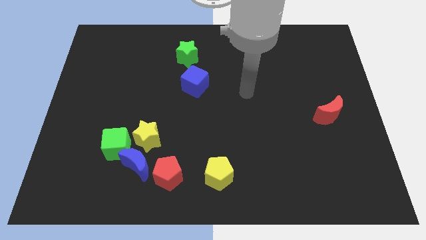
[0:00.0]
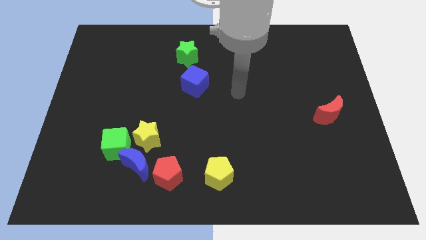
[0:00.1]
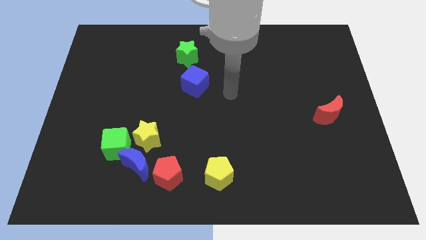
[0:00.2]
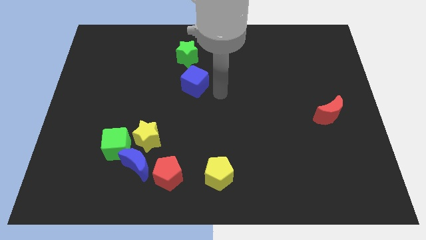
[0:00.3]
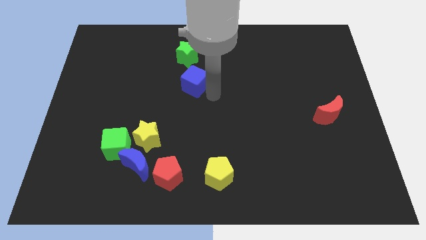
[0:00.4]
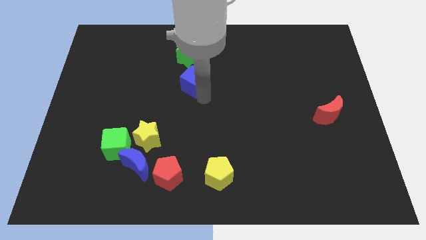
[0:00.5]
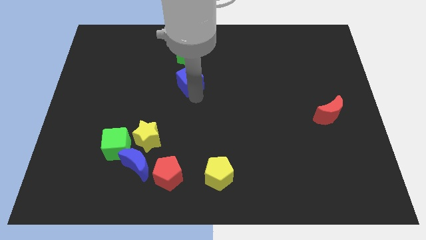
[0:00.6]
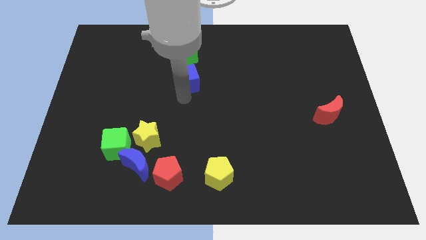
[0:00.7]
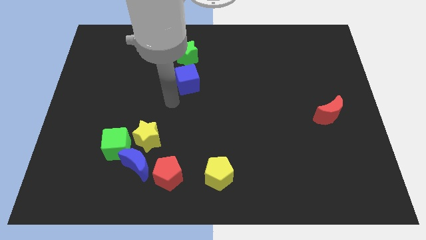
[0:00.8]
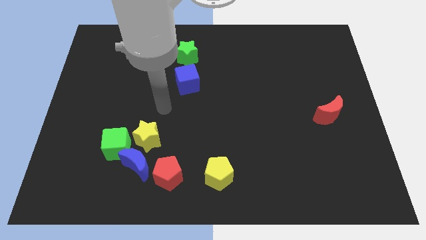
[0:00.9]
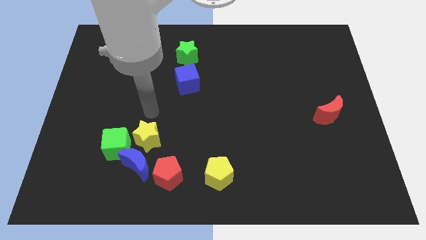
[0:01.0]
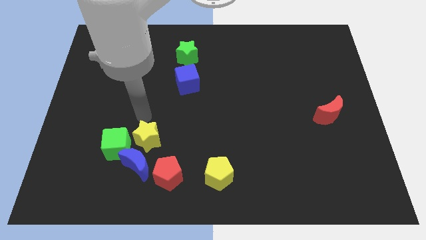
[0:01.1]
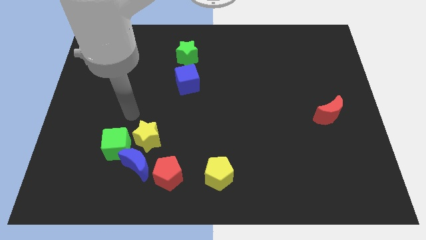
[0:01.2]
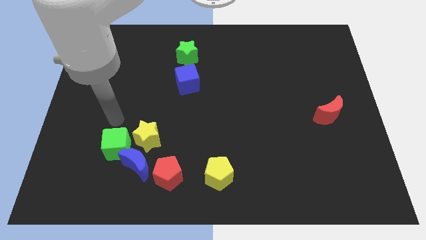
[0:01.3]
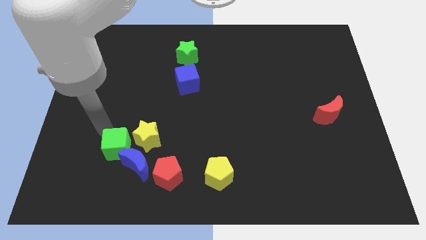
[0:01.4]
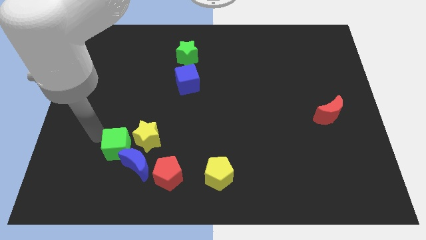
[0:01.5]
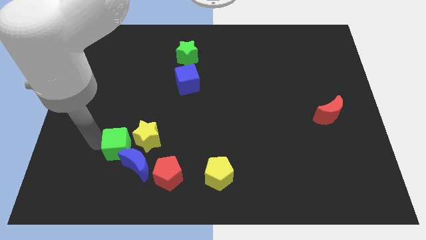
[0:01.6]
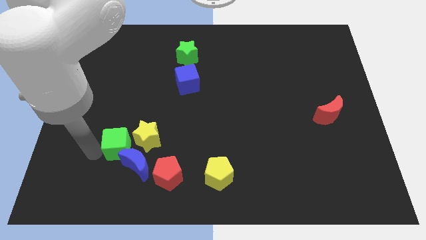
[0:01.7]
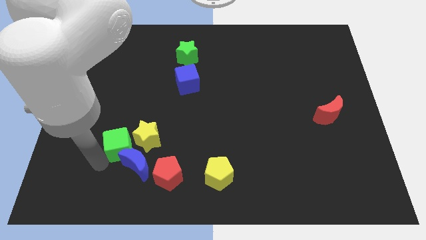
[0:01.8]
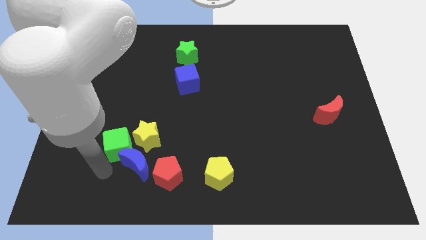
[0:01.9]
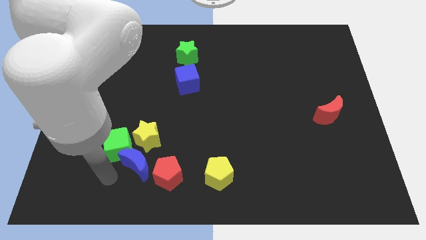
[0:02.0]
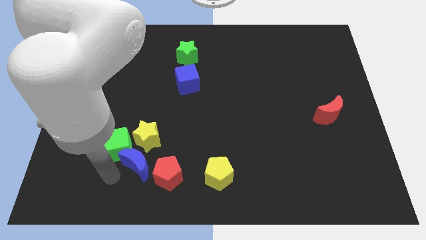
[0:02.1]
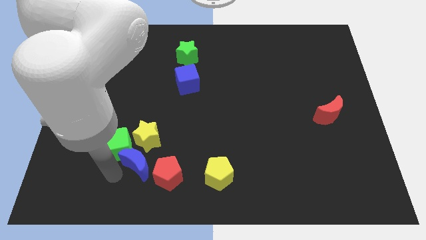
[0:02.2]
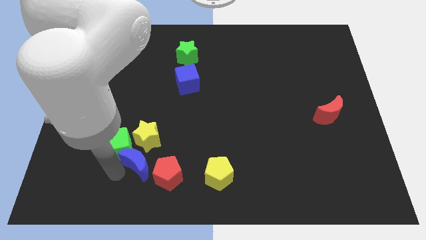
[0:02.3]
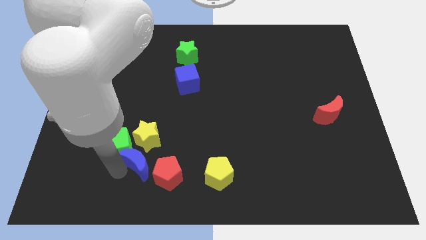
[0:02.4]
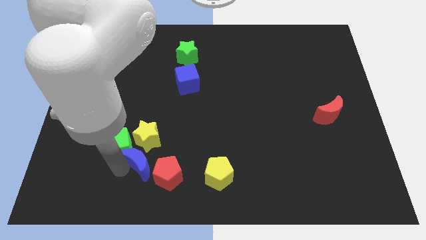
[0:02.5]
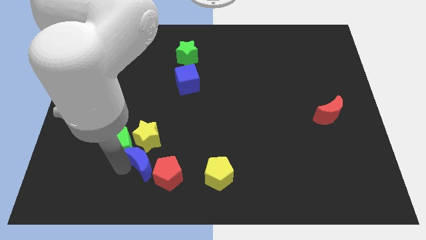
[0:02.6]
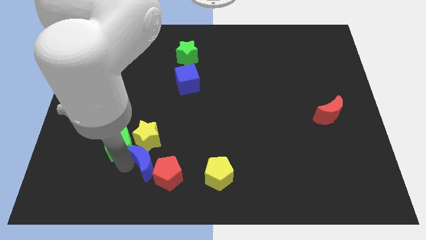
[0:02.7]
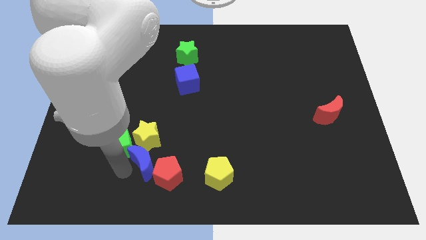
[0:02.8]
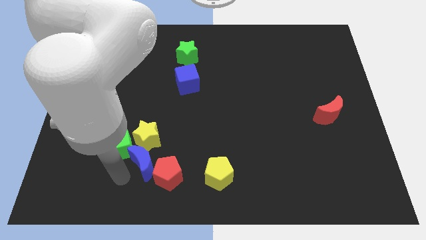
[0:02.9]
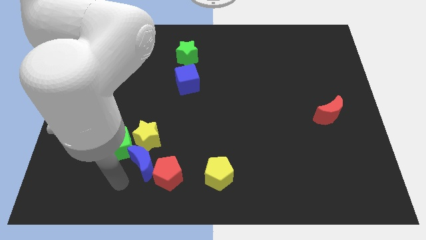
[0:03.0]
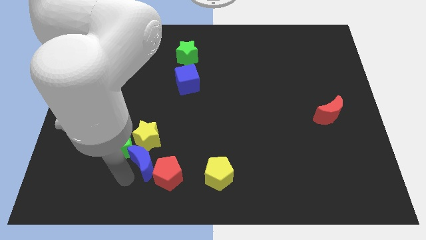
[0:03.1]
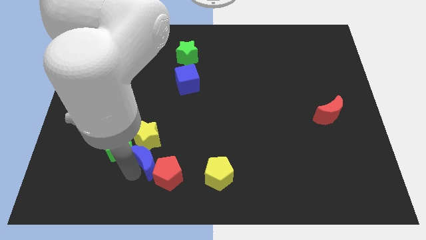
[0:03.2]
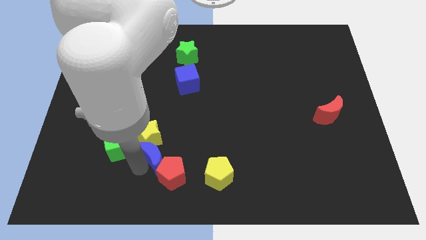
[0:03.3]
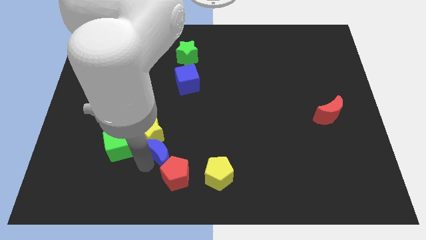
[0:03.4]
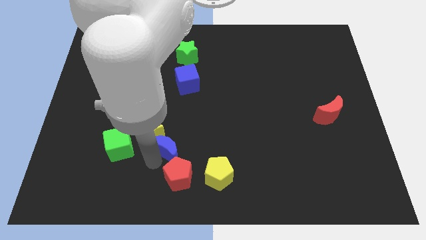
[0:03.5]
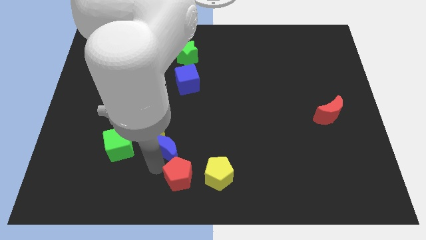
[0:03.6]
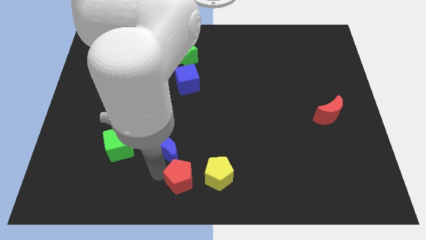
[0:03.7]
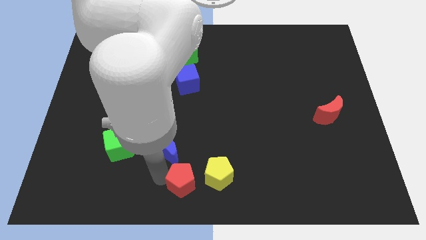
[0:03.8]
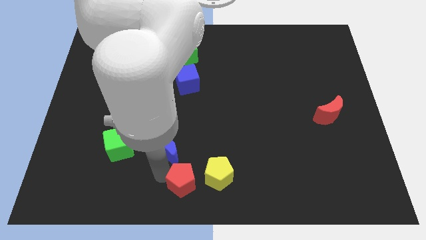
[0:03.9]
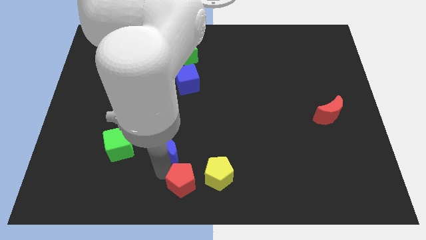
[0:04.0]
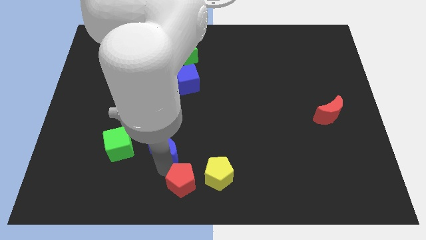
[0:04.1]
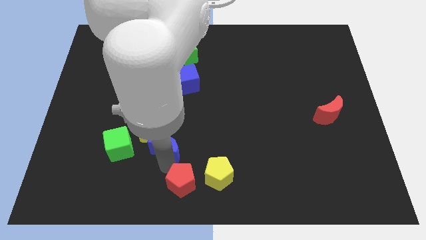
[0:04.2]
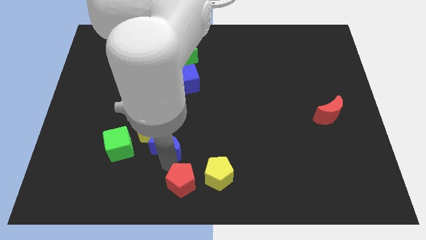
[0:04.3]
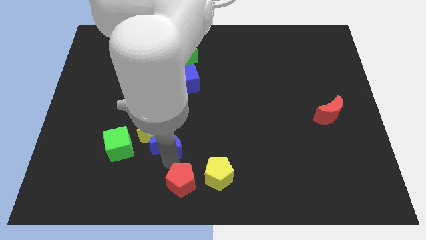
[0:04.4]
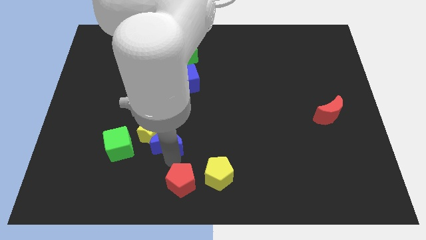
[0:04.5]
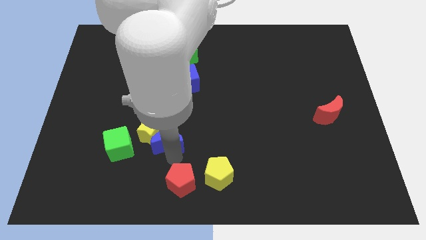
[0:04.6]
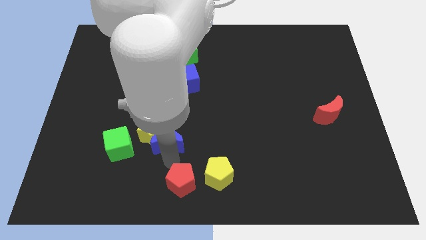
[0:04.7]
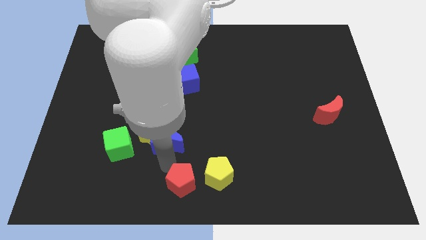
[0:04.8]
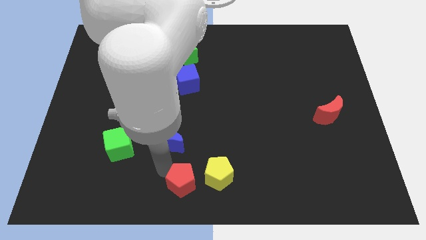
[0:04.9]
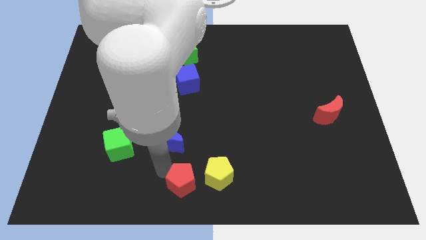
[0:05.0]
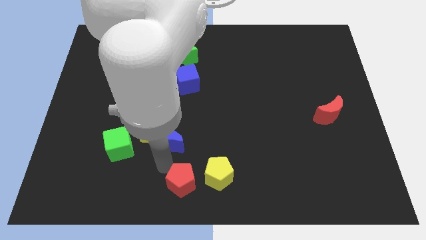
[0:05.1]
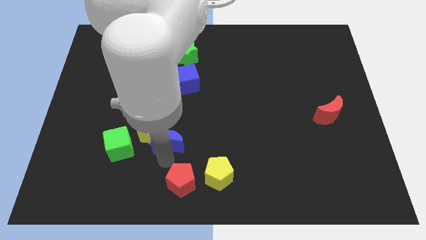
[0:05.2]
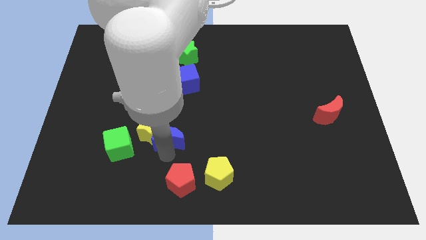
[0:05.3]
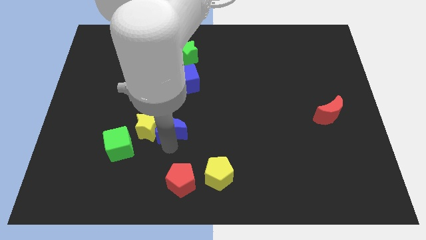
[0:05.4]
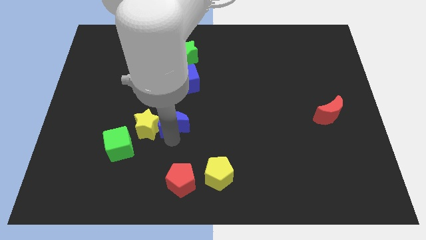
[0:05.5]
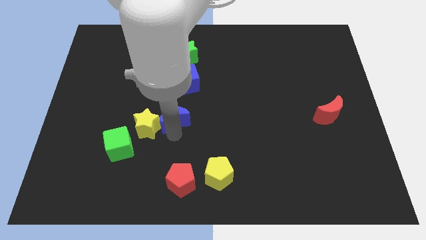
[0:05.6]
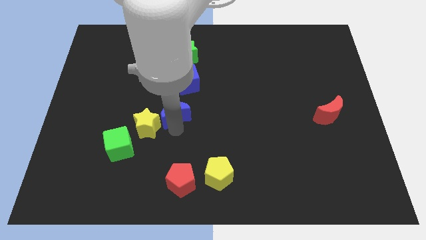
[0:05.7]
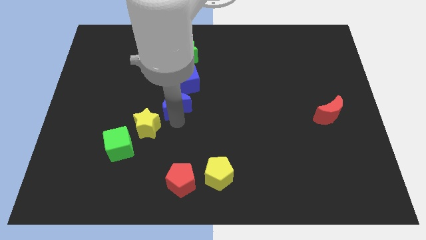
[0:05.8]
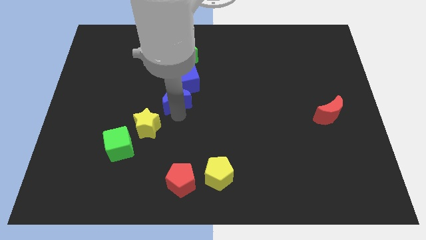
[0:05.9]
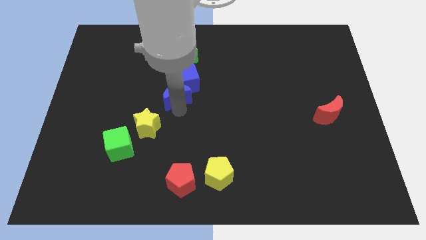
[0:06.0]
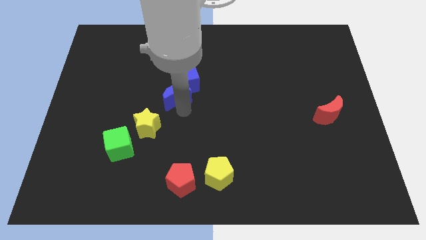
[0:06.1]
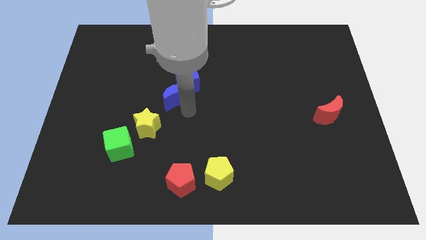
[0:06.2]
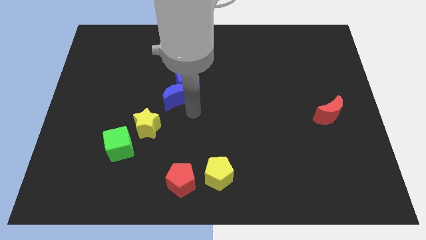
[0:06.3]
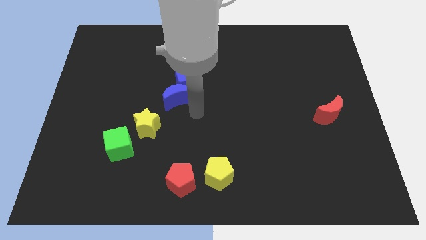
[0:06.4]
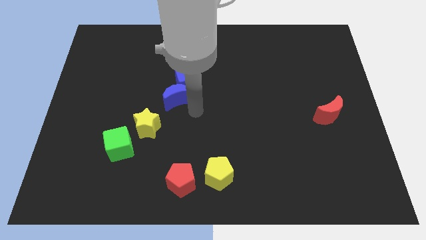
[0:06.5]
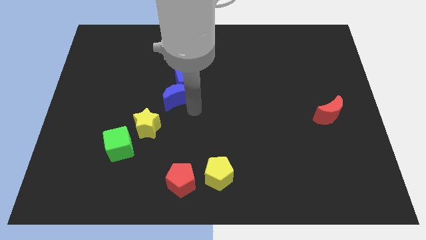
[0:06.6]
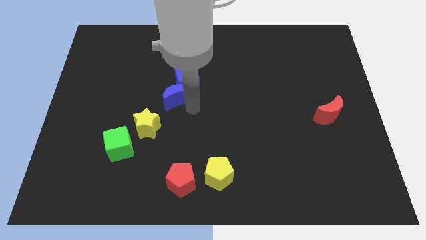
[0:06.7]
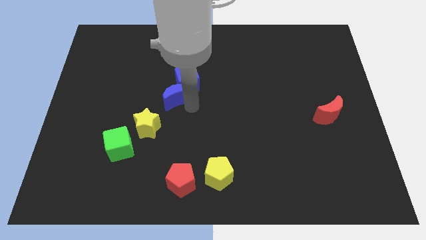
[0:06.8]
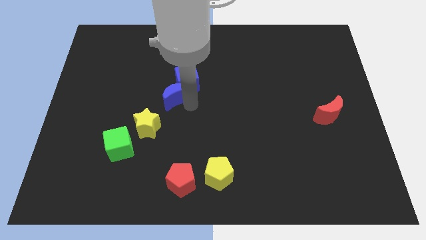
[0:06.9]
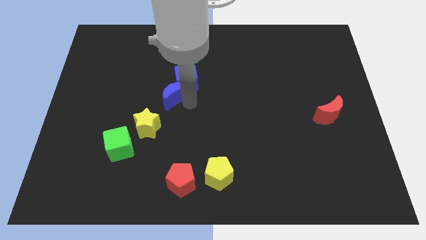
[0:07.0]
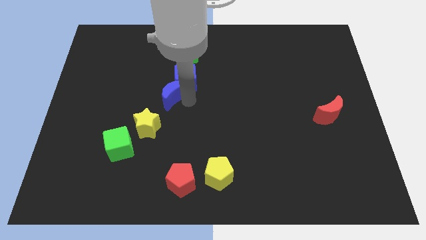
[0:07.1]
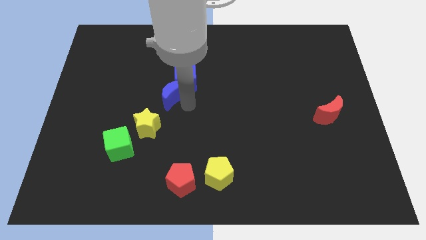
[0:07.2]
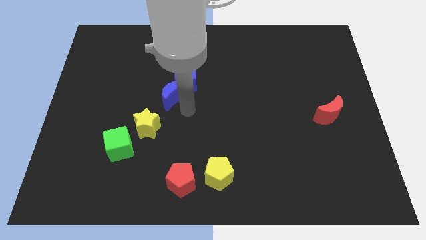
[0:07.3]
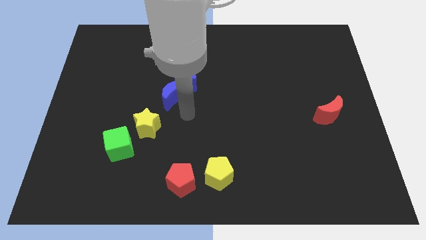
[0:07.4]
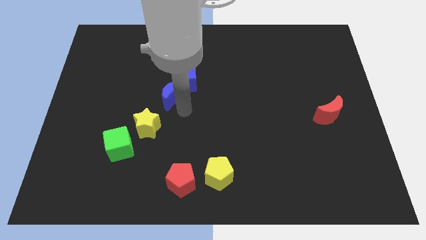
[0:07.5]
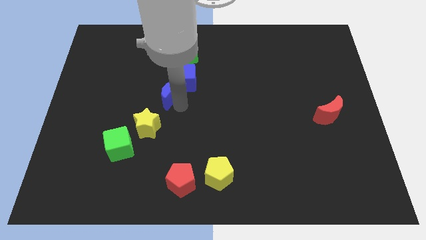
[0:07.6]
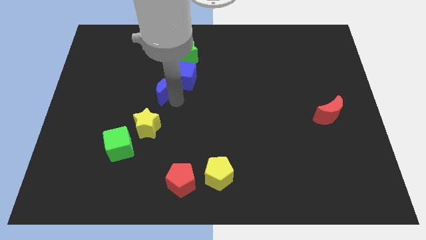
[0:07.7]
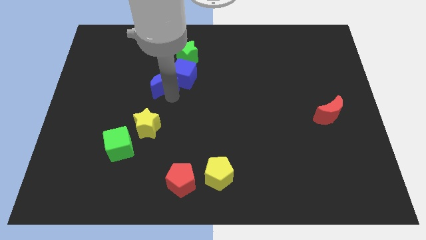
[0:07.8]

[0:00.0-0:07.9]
move the blue moon up

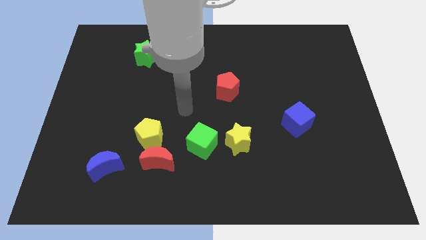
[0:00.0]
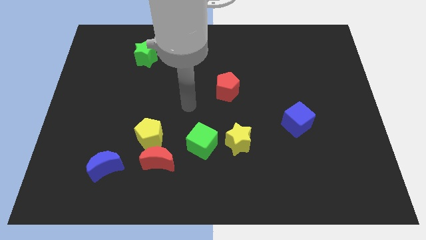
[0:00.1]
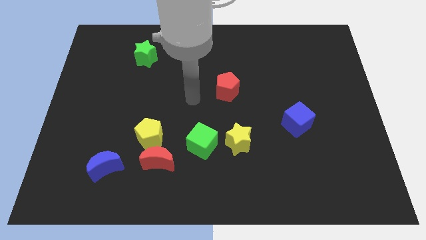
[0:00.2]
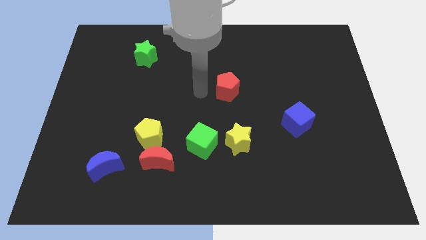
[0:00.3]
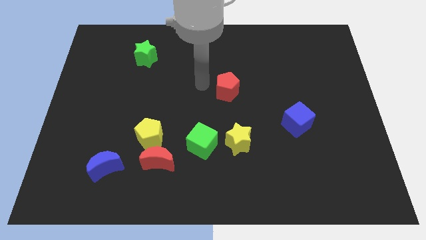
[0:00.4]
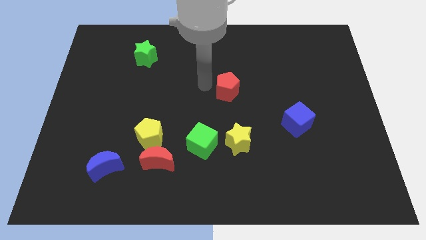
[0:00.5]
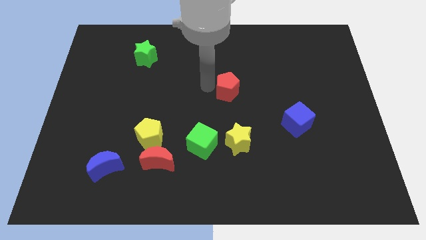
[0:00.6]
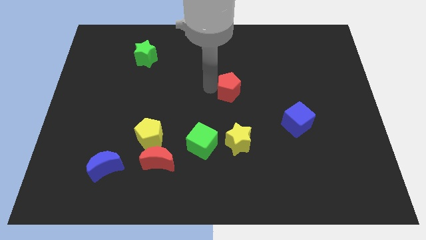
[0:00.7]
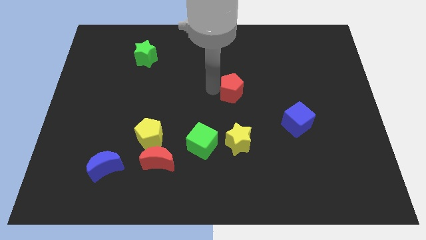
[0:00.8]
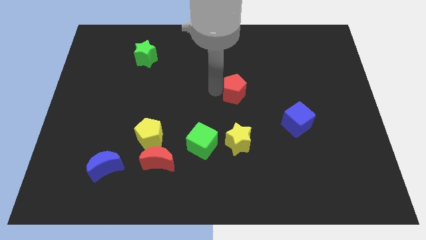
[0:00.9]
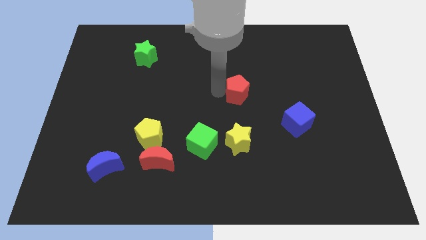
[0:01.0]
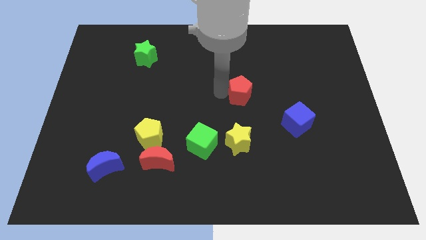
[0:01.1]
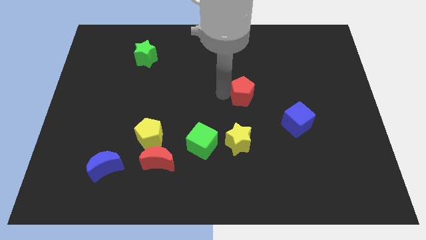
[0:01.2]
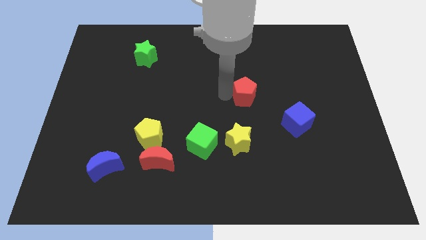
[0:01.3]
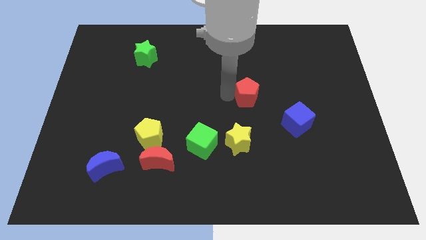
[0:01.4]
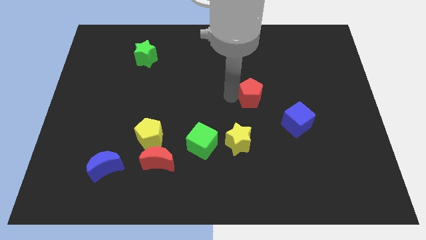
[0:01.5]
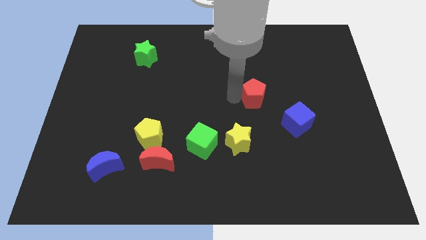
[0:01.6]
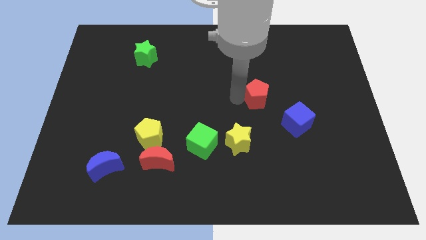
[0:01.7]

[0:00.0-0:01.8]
slightly slide the red pentagon to the right
